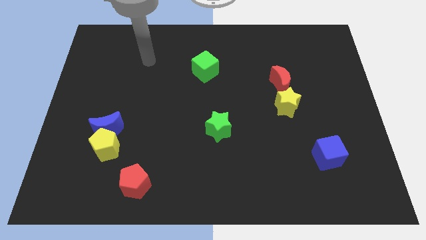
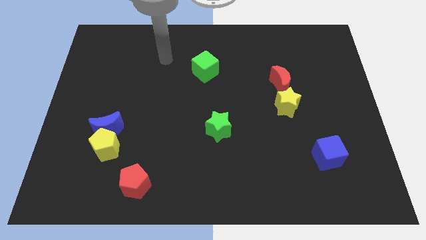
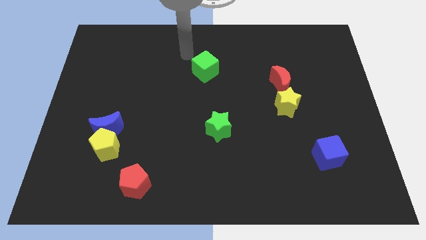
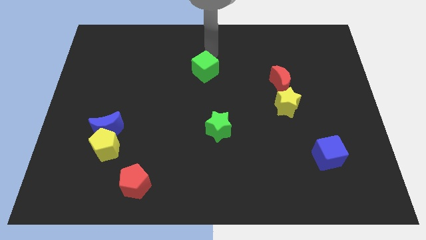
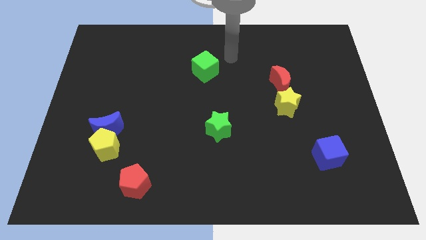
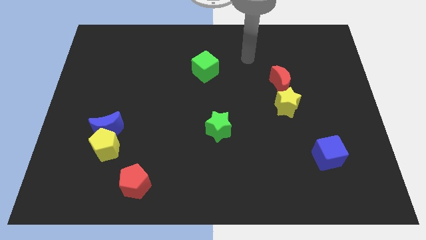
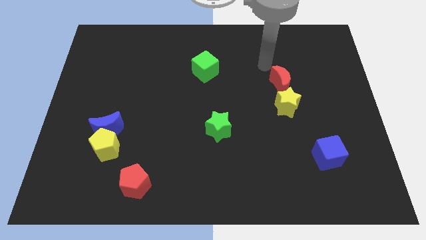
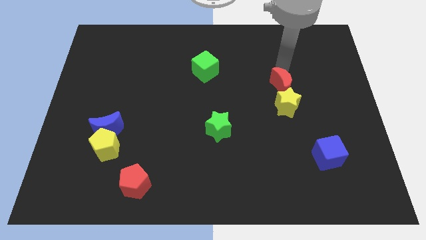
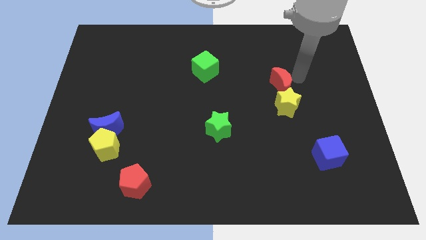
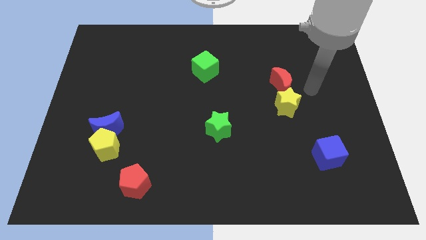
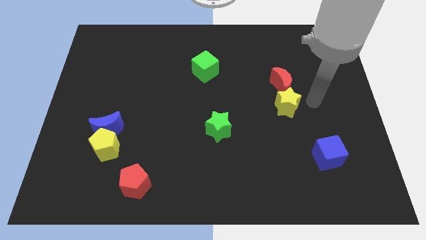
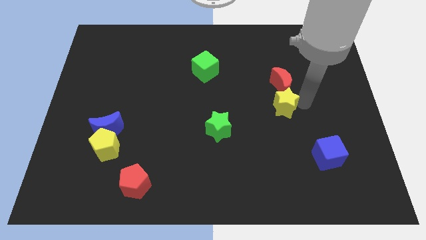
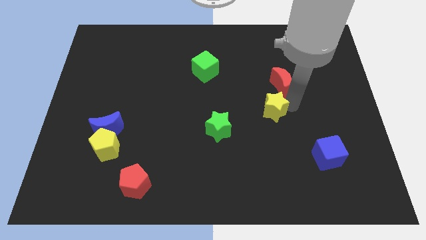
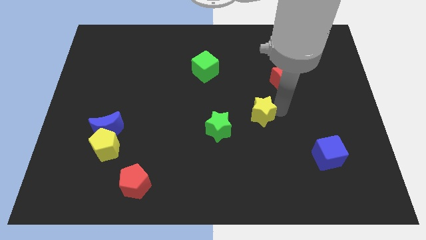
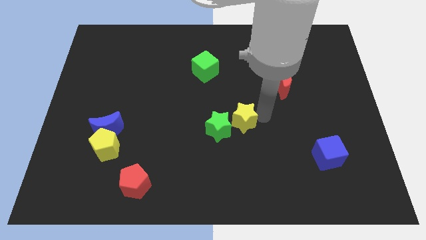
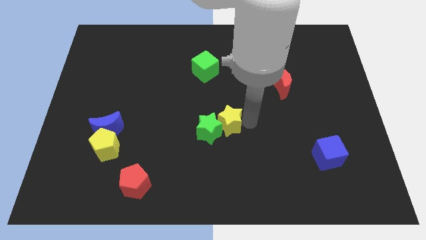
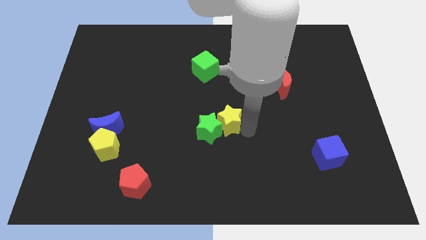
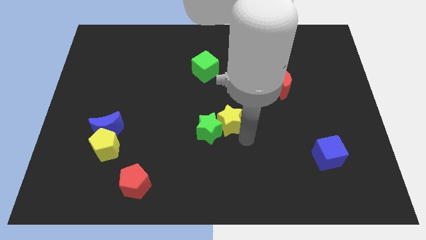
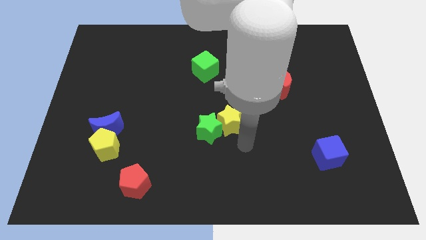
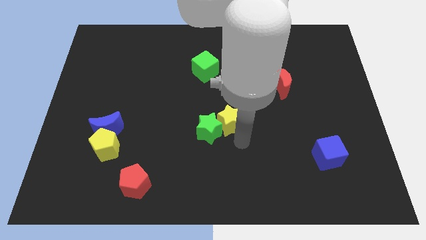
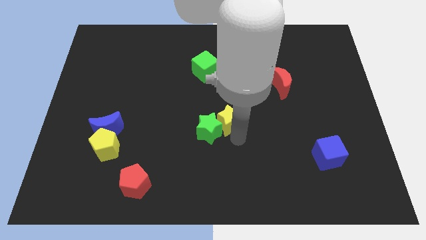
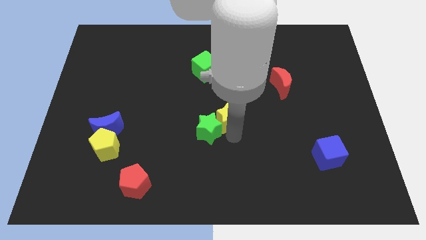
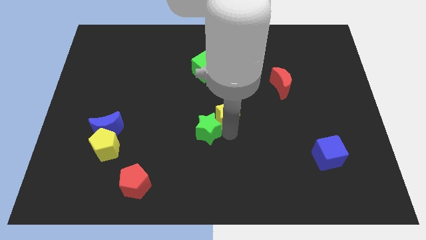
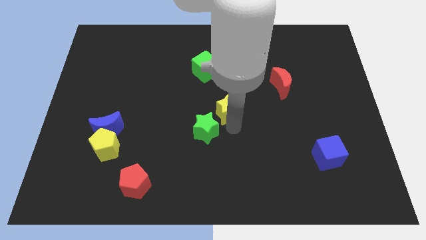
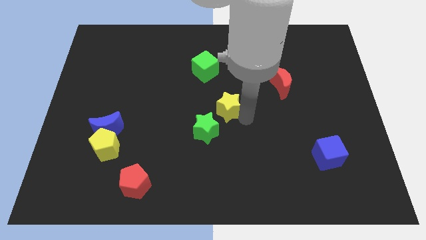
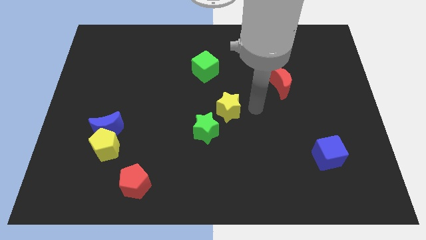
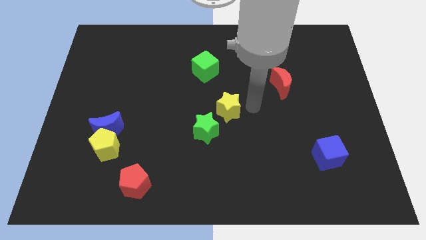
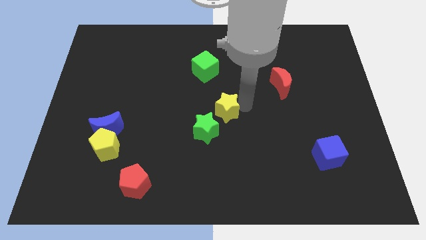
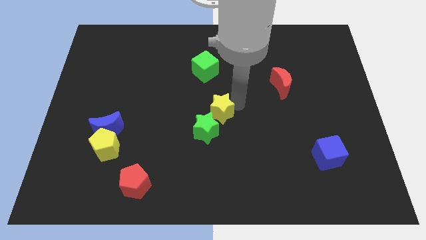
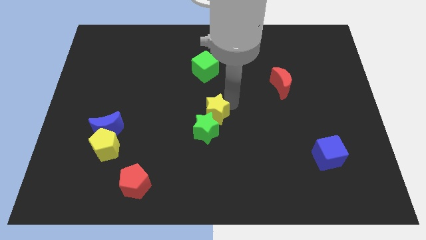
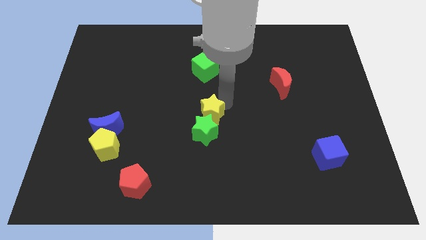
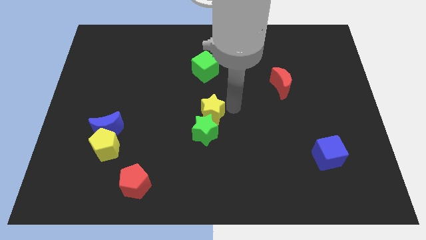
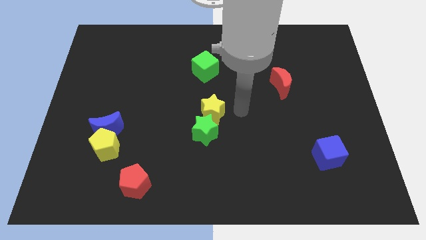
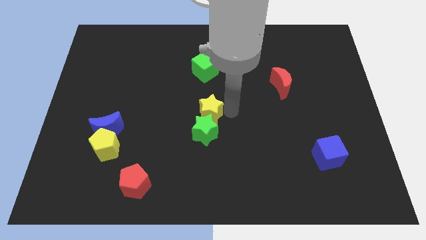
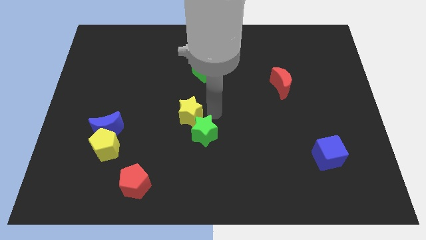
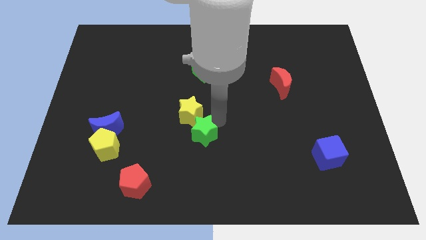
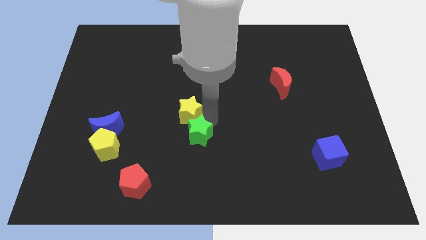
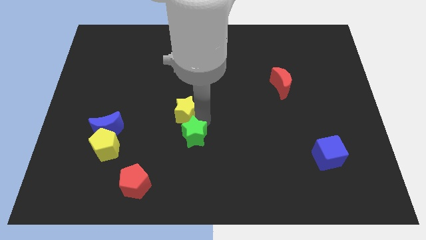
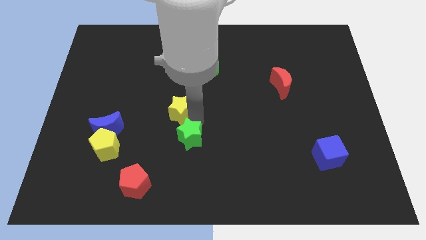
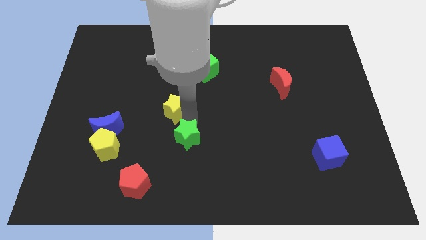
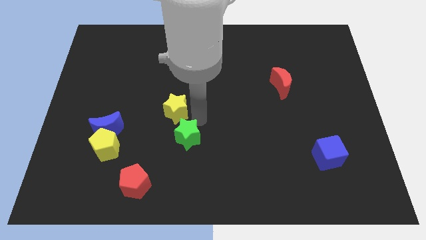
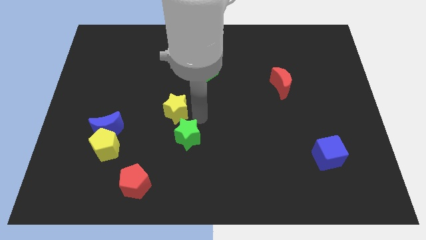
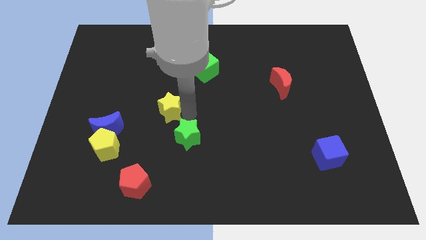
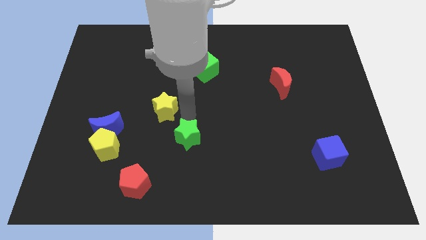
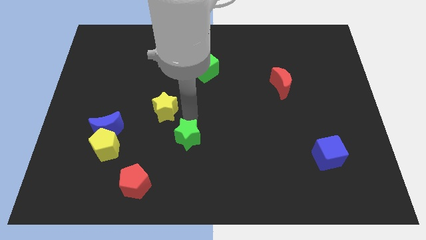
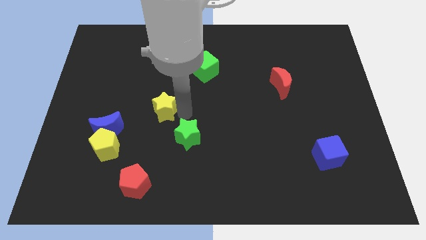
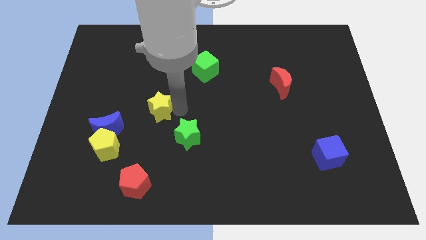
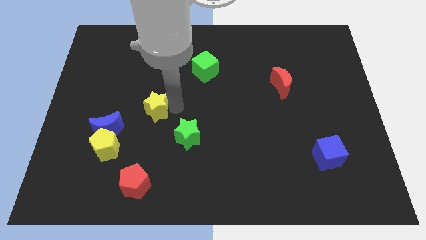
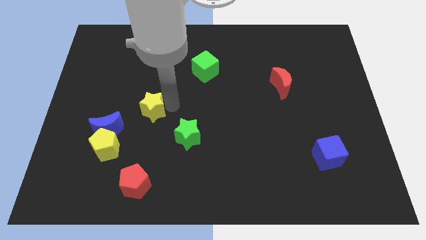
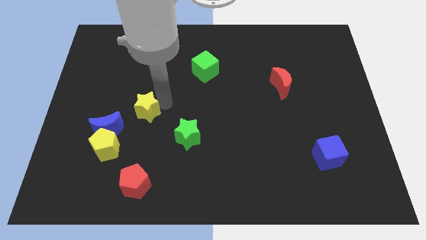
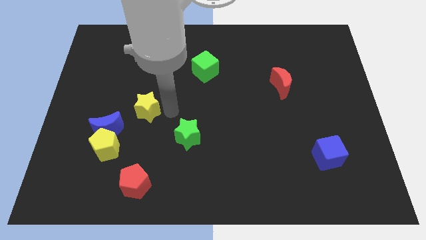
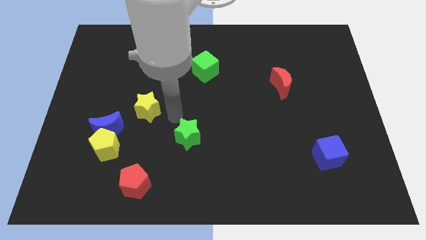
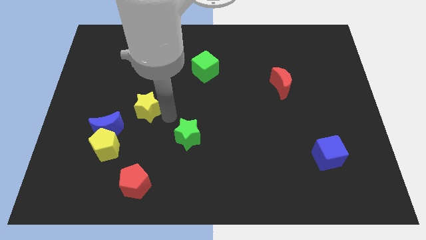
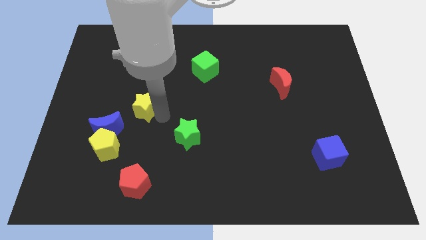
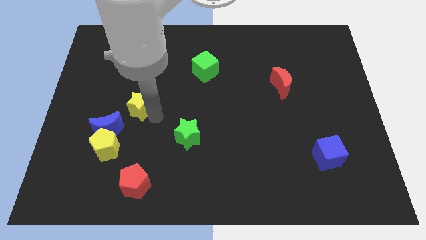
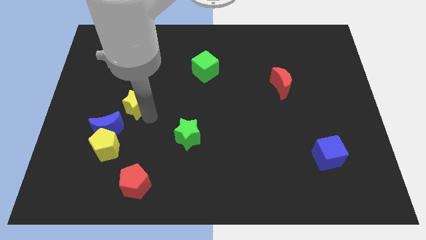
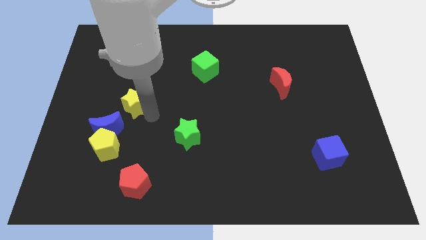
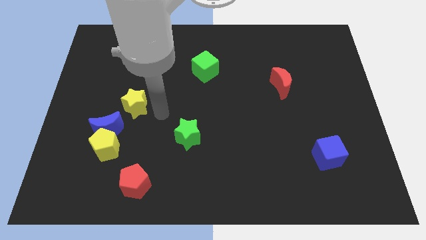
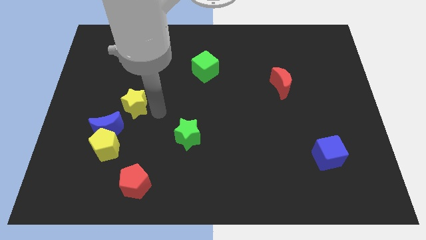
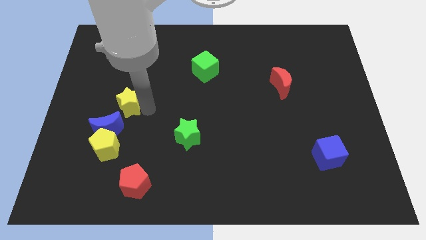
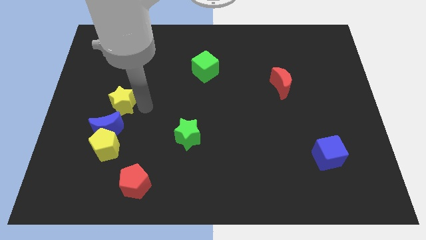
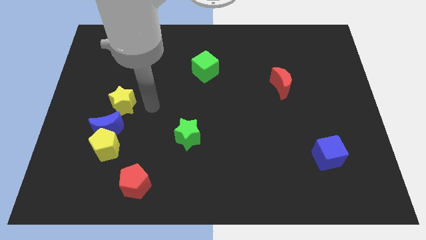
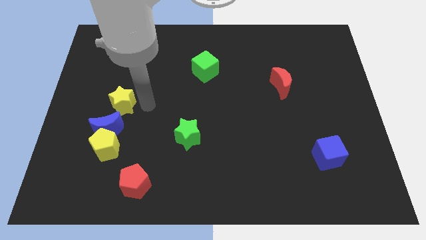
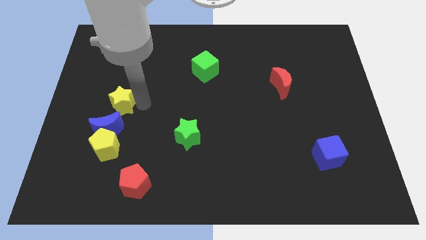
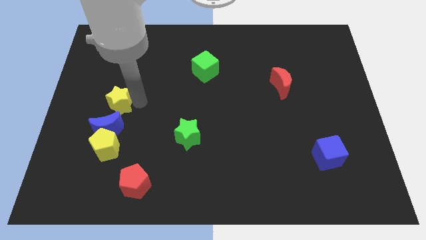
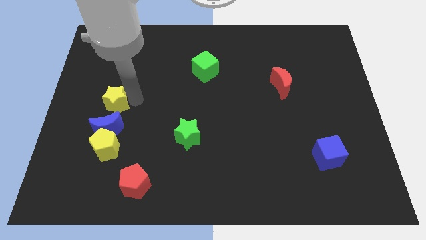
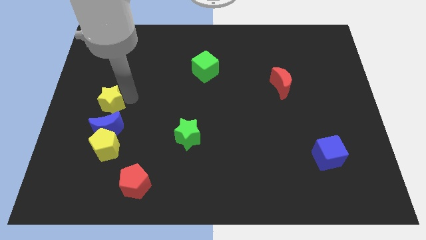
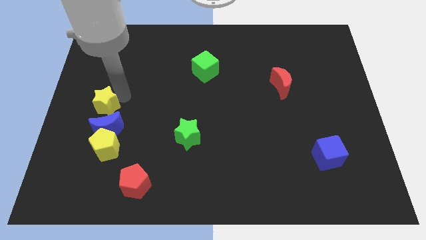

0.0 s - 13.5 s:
move the yellow star to the left side of the board

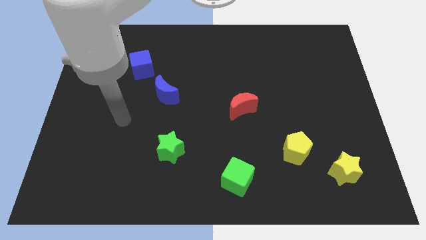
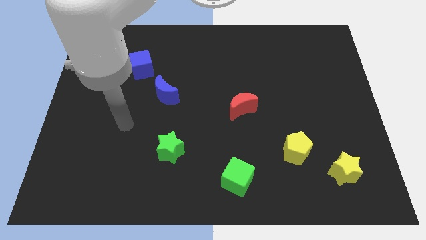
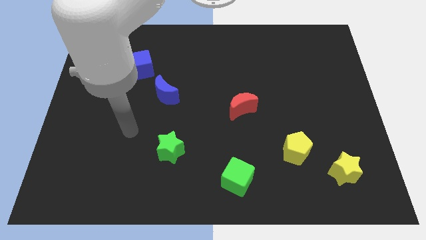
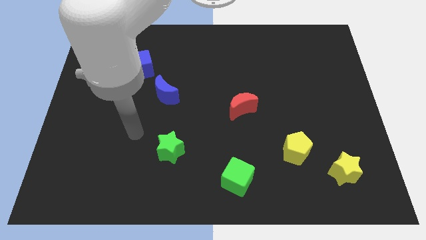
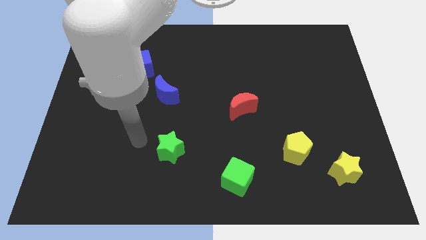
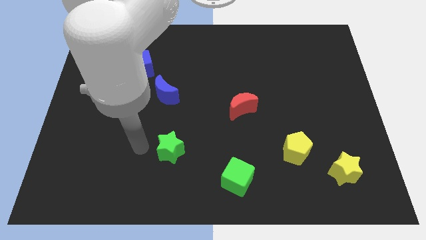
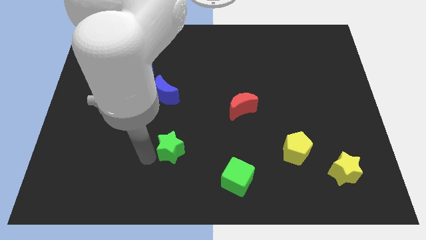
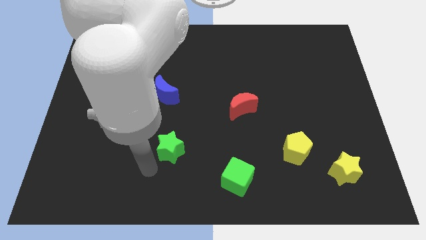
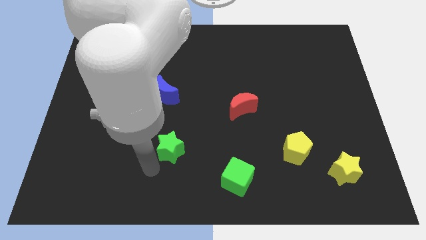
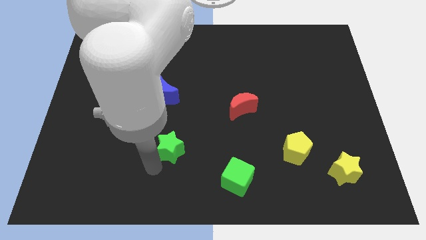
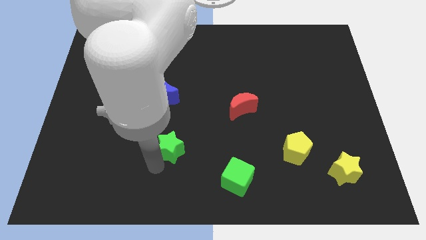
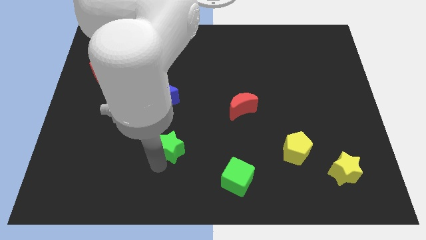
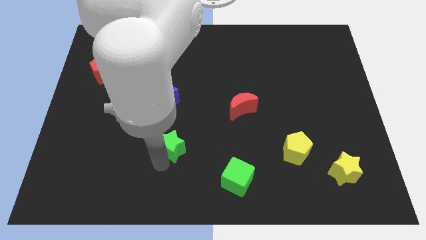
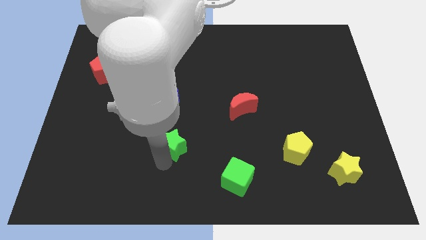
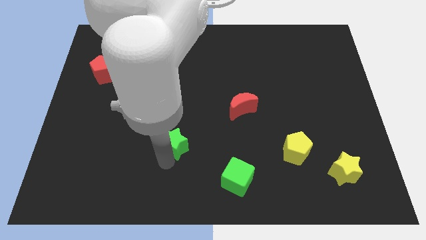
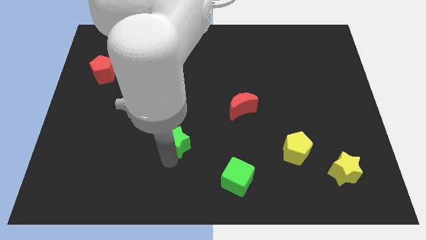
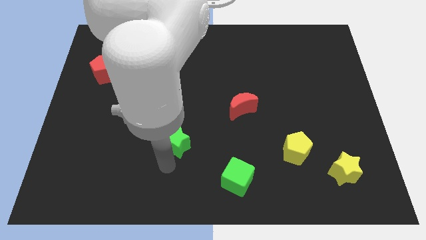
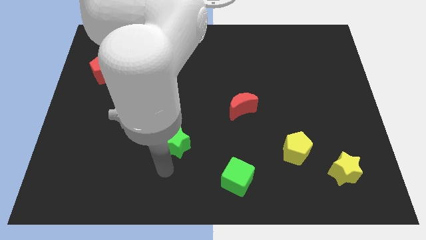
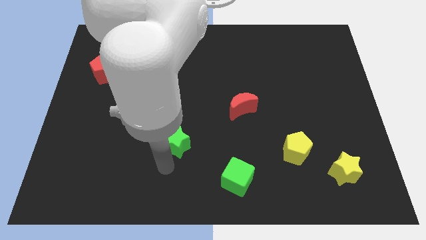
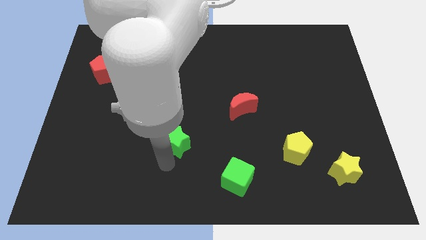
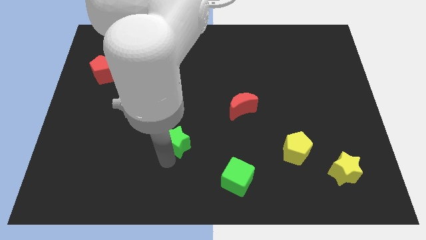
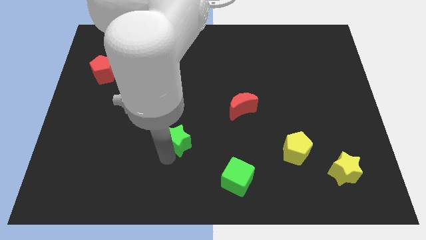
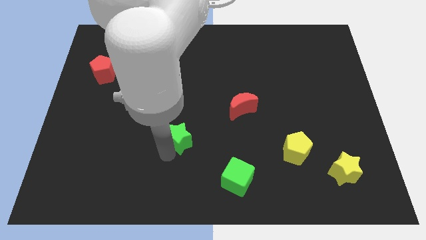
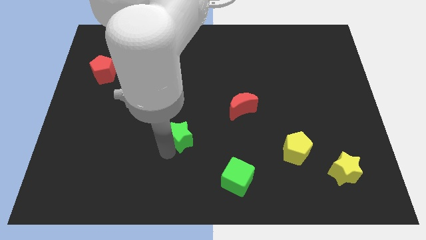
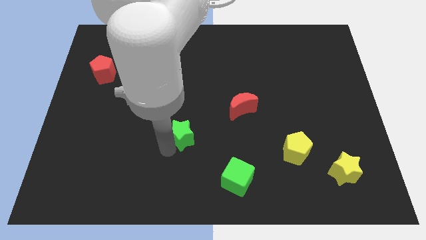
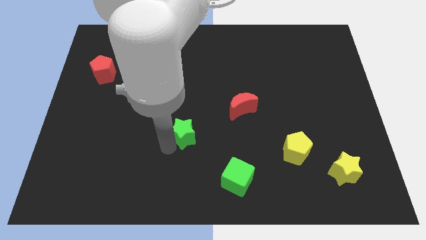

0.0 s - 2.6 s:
move the green star to the middle
